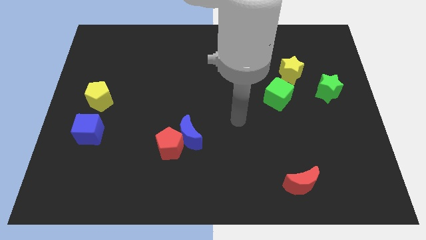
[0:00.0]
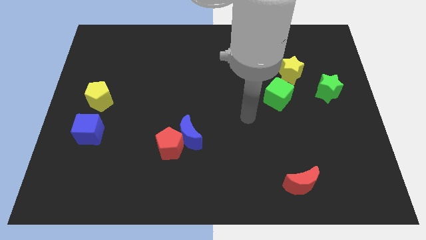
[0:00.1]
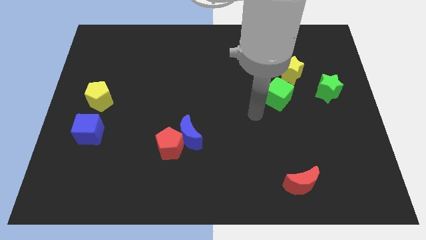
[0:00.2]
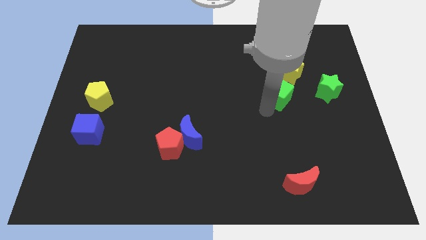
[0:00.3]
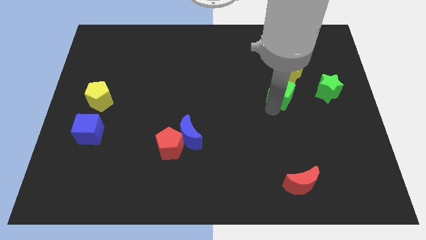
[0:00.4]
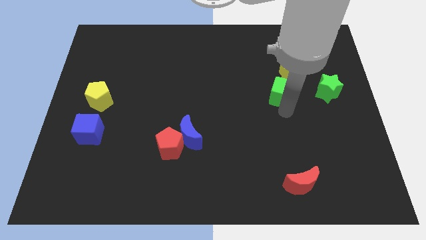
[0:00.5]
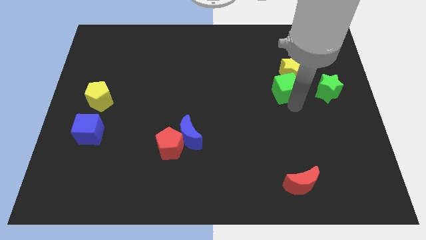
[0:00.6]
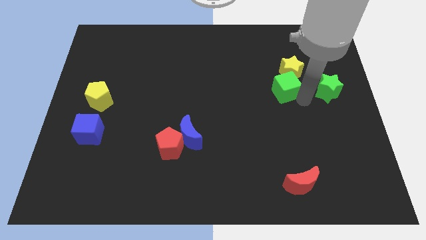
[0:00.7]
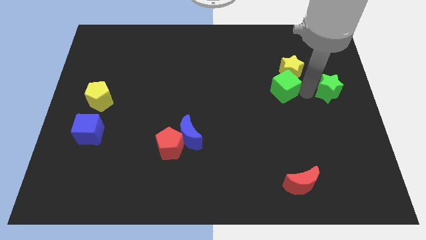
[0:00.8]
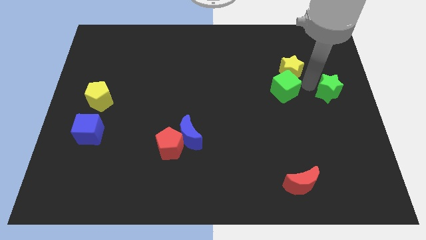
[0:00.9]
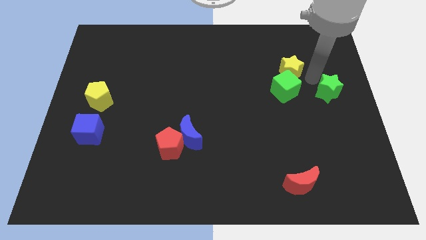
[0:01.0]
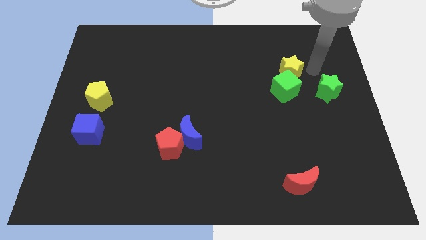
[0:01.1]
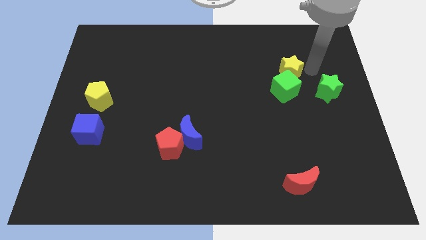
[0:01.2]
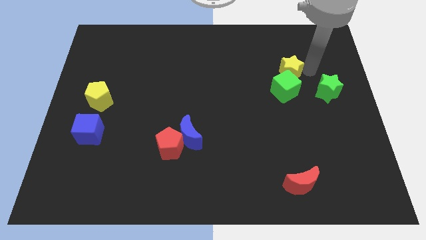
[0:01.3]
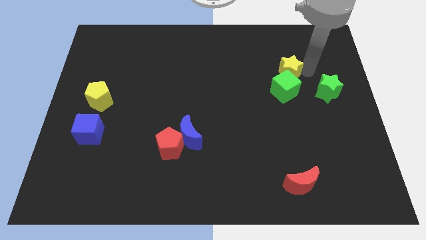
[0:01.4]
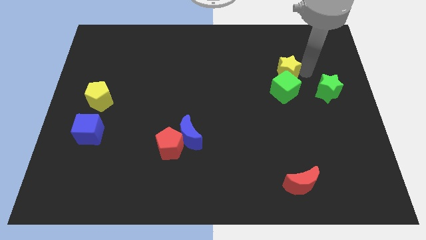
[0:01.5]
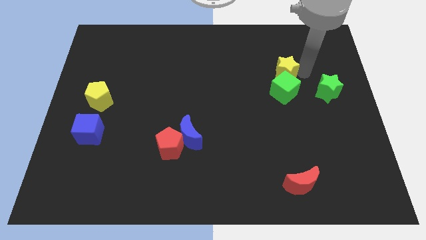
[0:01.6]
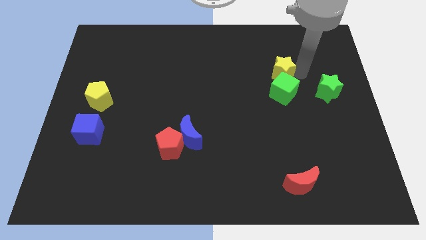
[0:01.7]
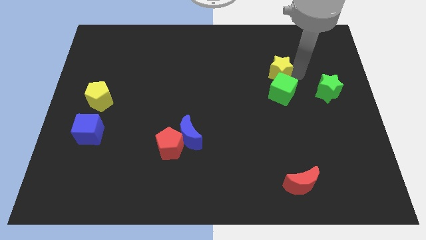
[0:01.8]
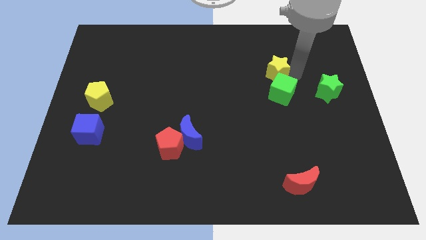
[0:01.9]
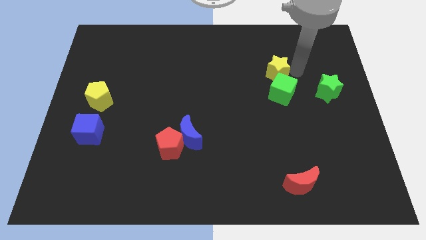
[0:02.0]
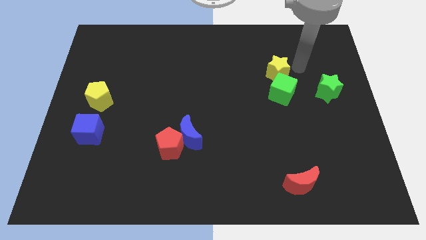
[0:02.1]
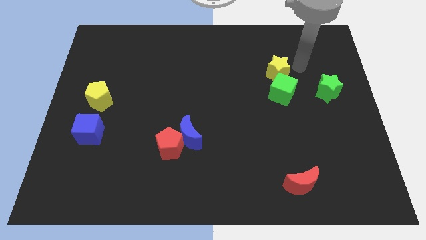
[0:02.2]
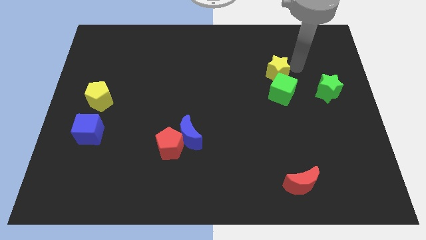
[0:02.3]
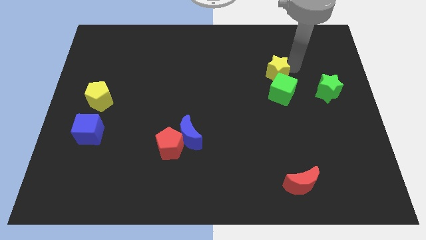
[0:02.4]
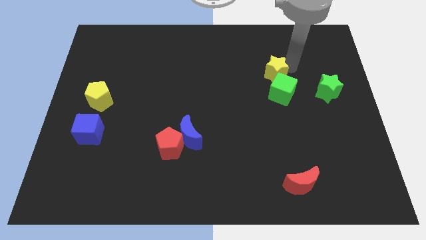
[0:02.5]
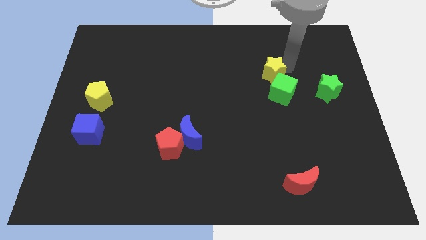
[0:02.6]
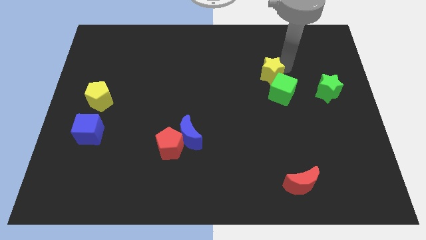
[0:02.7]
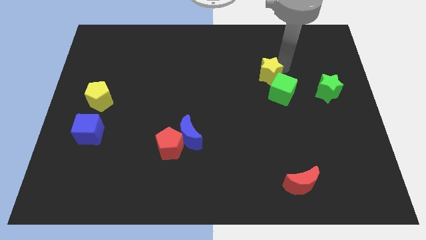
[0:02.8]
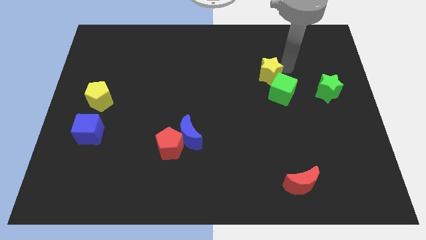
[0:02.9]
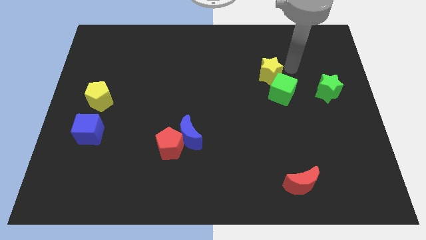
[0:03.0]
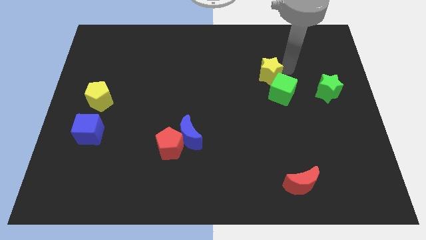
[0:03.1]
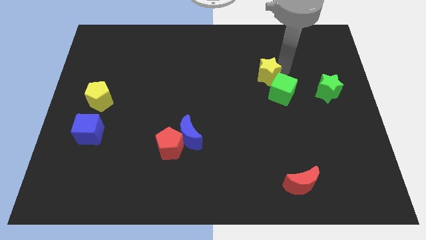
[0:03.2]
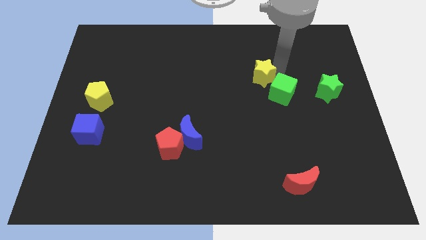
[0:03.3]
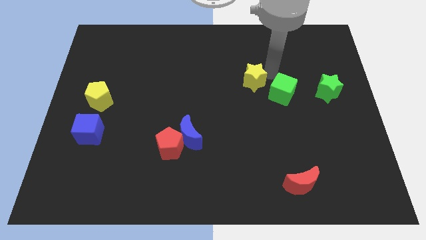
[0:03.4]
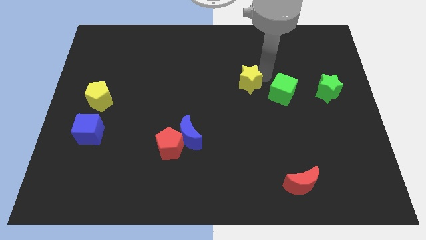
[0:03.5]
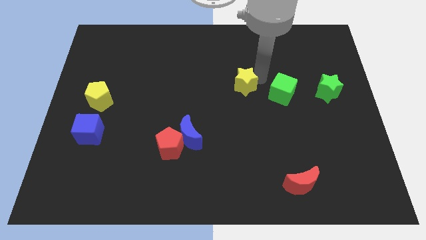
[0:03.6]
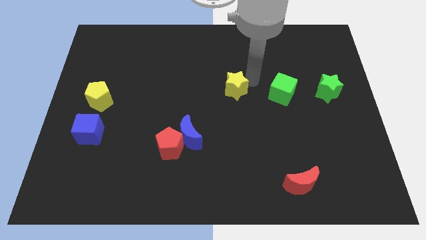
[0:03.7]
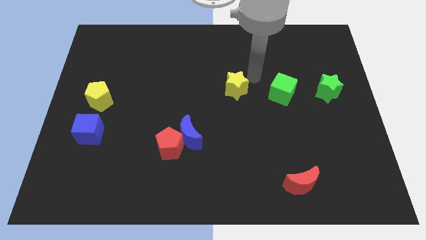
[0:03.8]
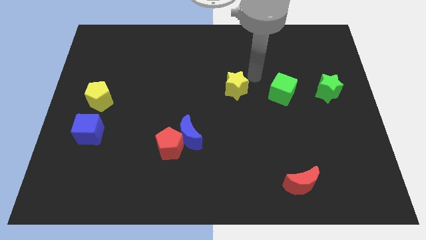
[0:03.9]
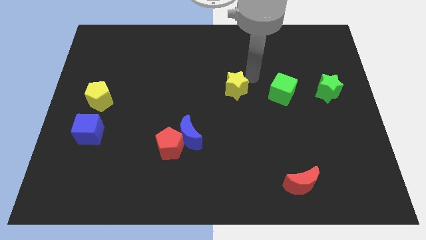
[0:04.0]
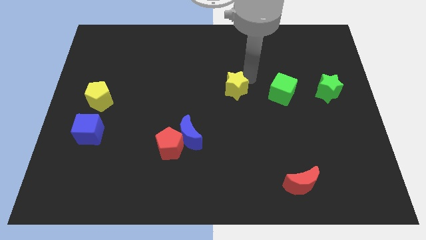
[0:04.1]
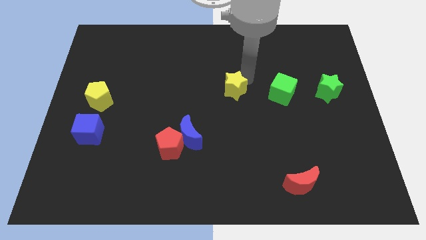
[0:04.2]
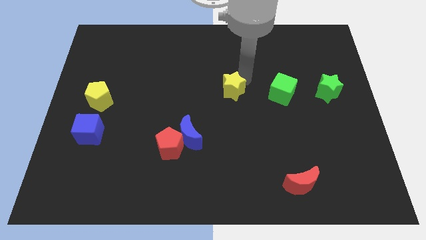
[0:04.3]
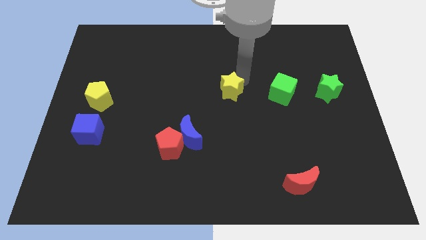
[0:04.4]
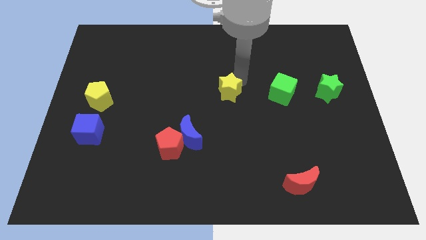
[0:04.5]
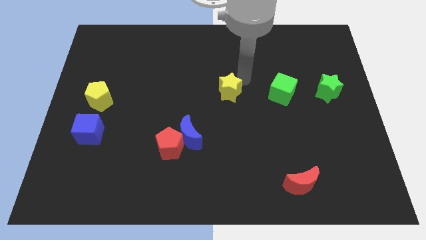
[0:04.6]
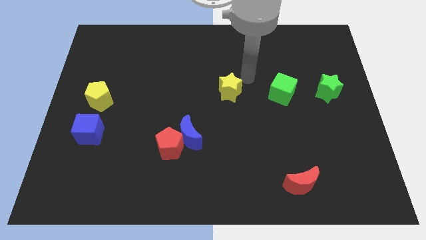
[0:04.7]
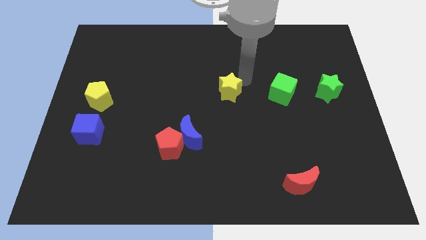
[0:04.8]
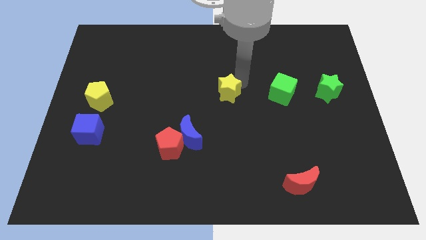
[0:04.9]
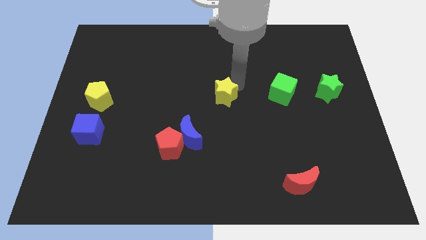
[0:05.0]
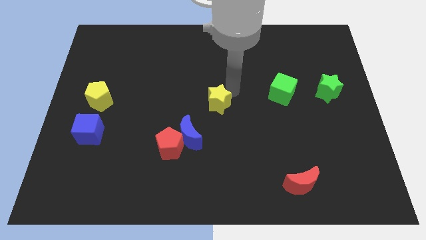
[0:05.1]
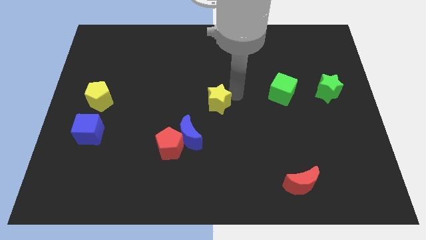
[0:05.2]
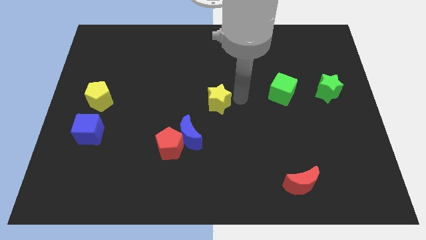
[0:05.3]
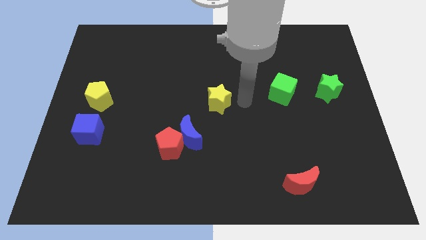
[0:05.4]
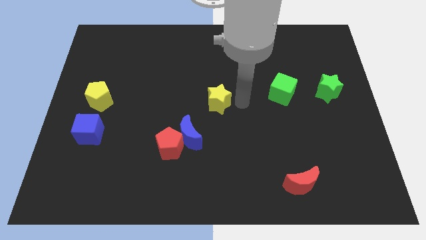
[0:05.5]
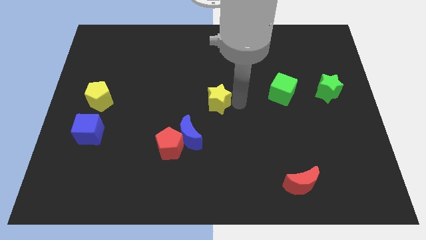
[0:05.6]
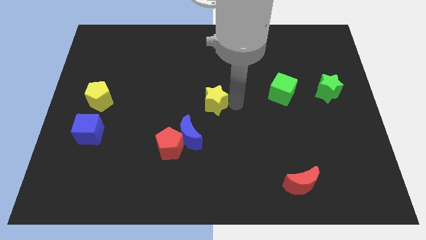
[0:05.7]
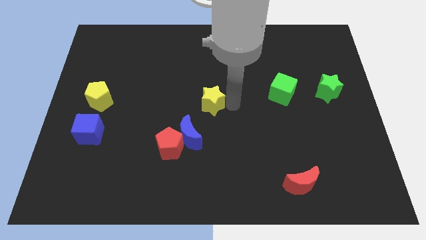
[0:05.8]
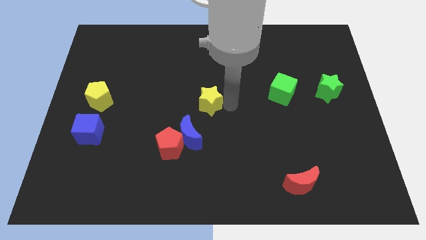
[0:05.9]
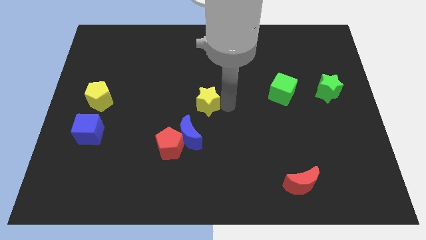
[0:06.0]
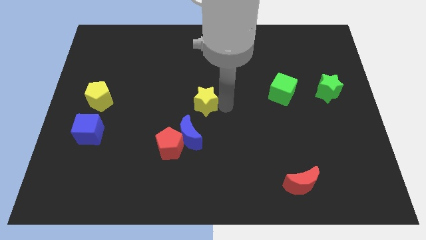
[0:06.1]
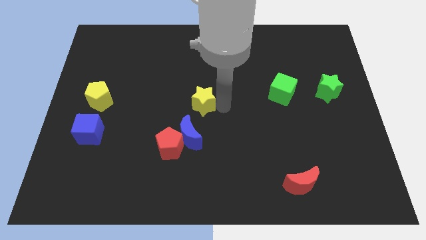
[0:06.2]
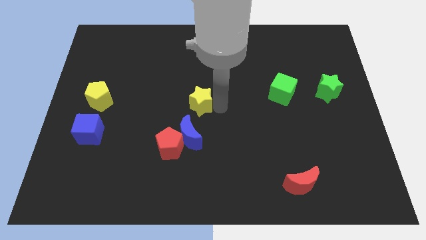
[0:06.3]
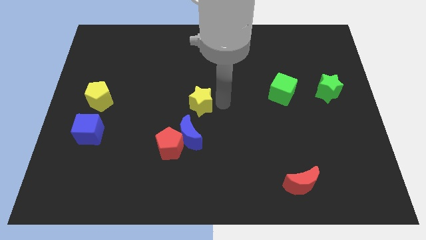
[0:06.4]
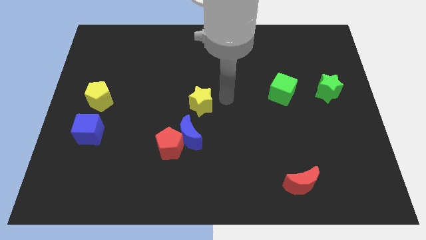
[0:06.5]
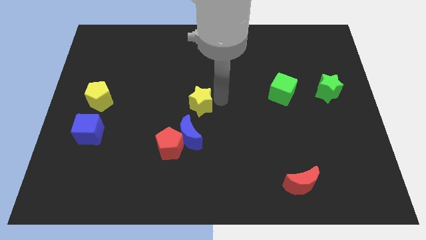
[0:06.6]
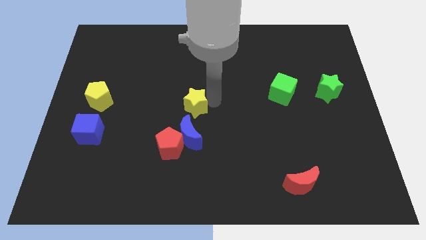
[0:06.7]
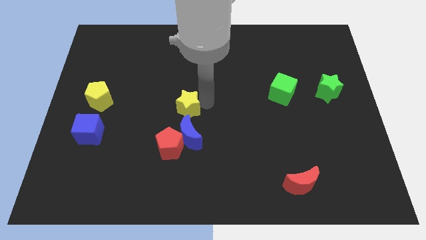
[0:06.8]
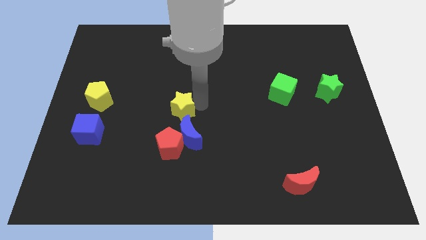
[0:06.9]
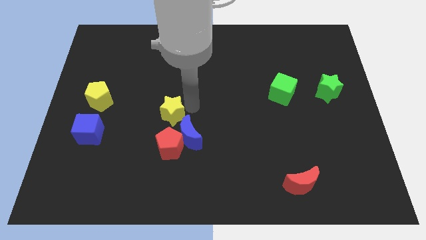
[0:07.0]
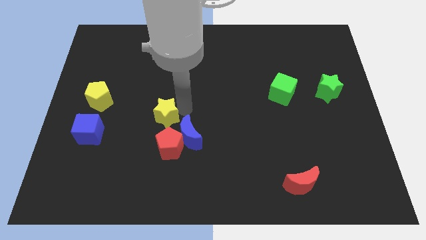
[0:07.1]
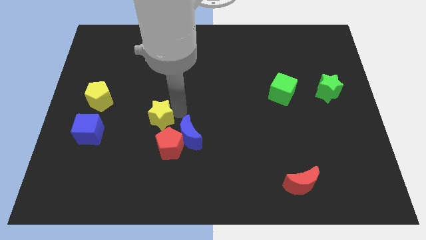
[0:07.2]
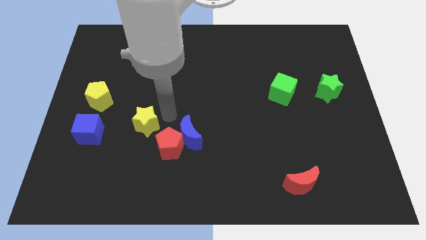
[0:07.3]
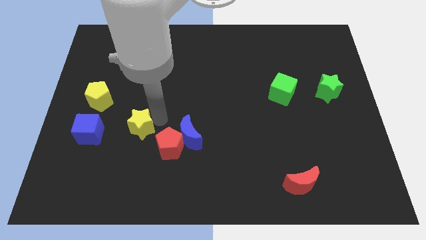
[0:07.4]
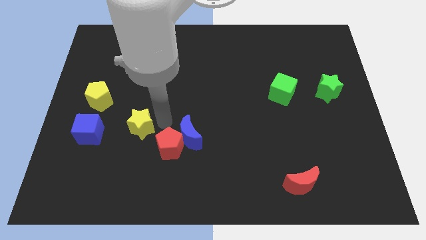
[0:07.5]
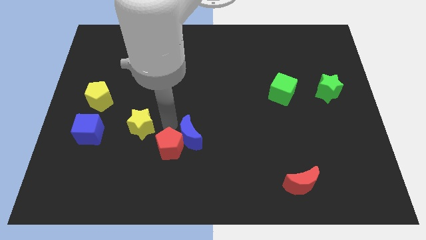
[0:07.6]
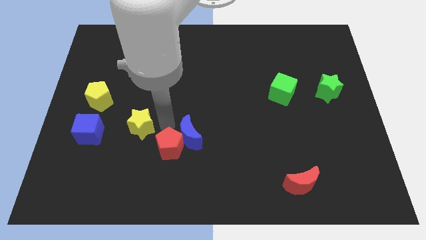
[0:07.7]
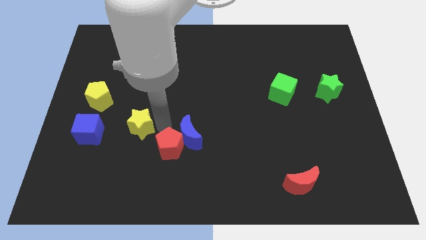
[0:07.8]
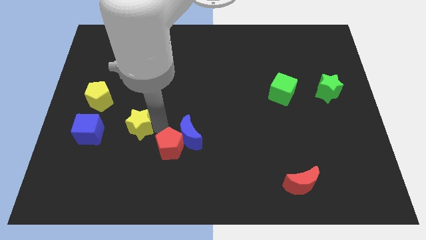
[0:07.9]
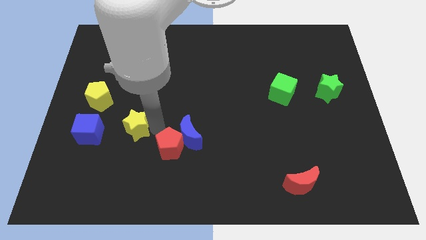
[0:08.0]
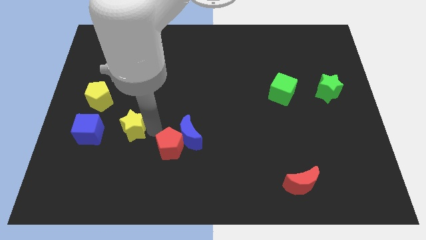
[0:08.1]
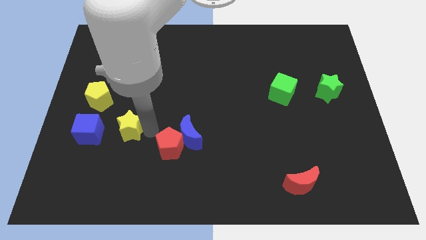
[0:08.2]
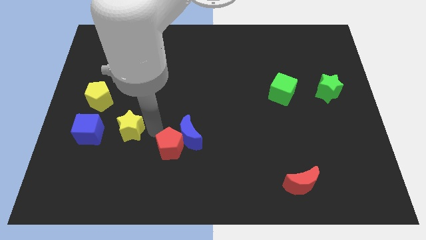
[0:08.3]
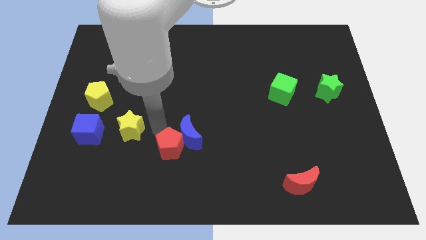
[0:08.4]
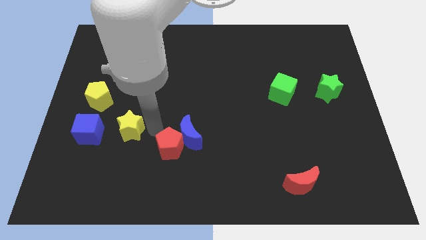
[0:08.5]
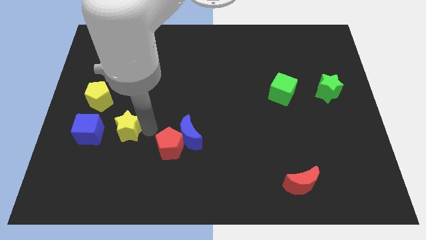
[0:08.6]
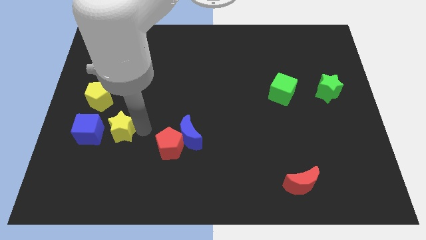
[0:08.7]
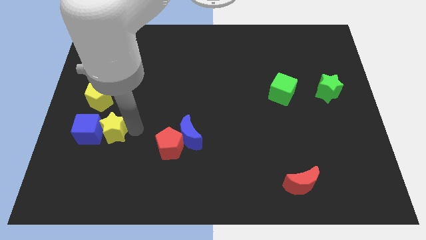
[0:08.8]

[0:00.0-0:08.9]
put the yellow star towards the blue cube
